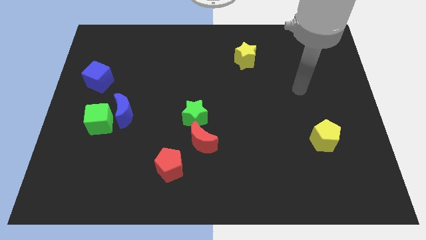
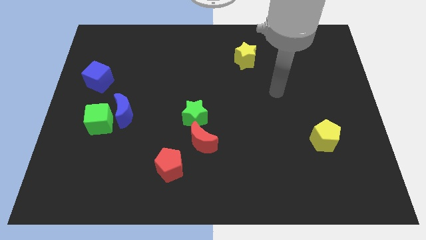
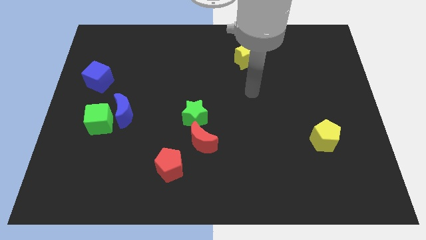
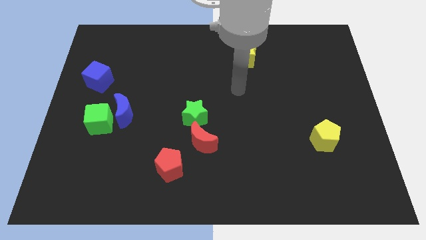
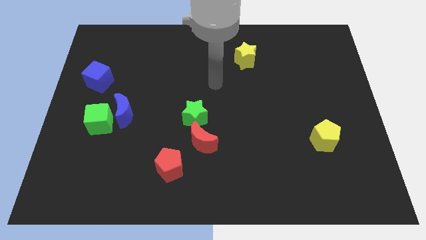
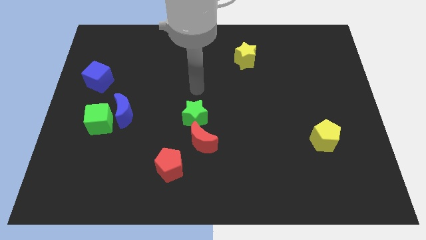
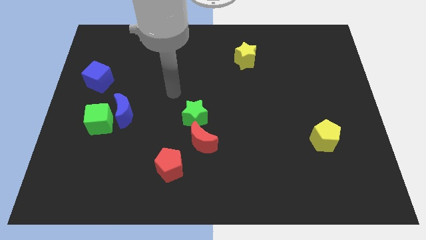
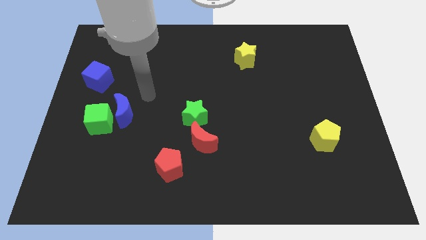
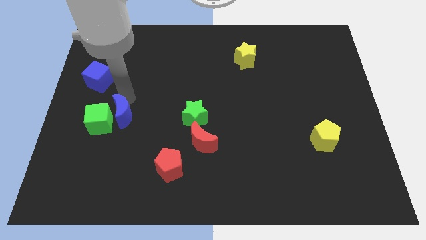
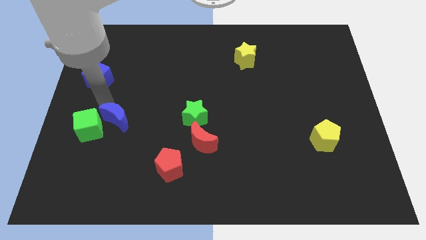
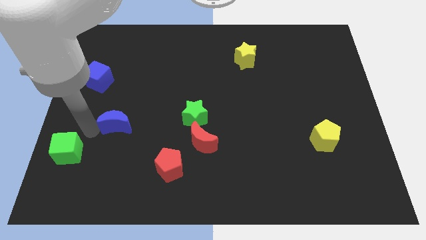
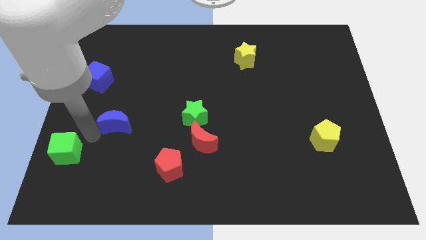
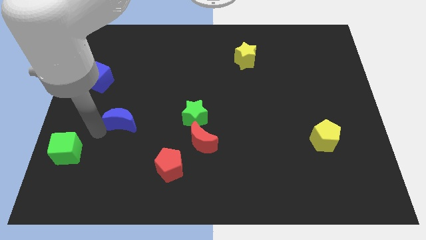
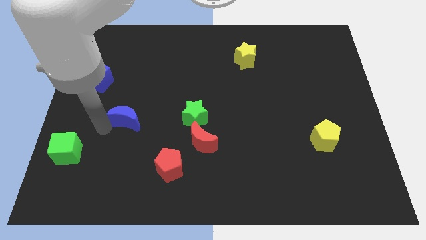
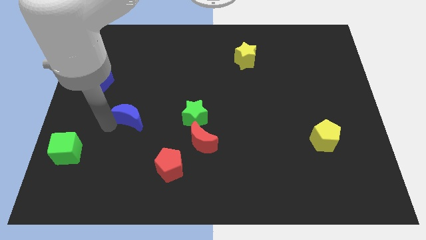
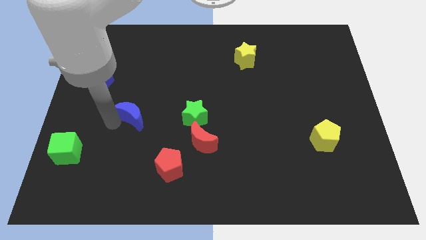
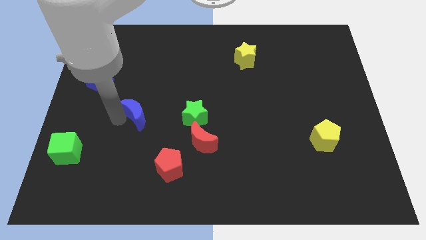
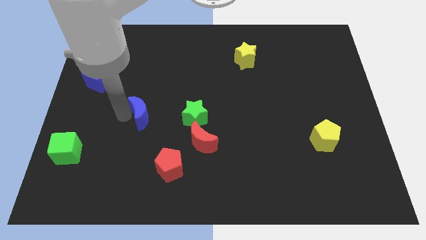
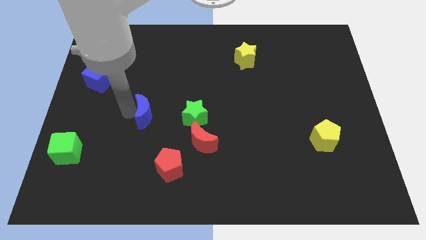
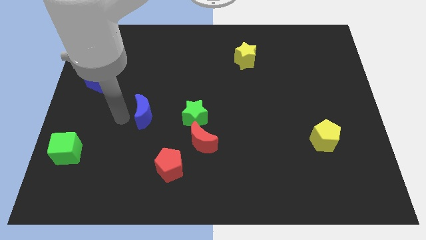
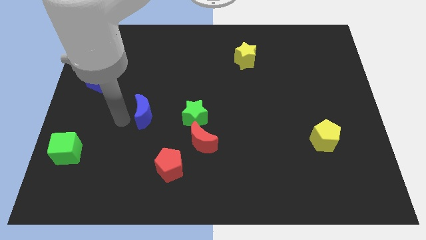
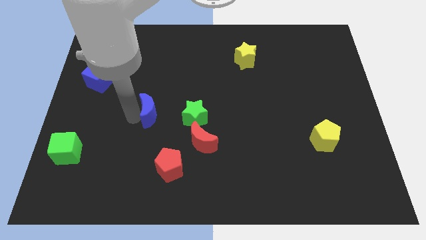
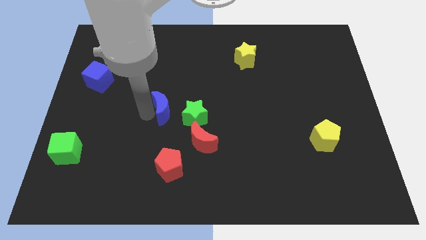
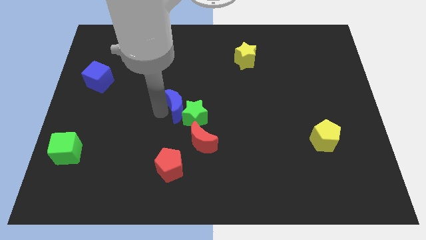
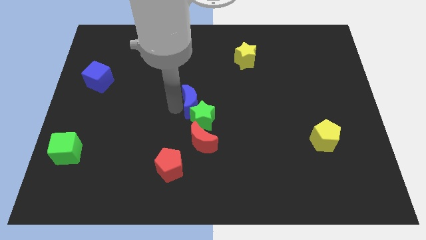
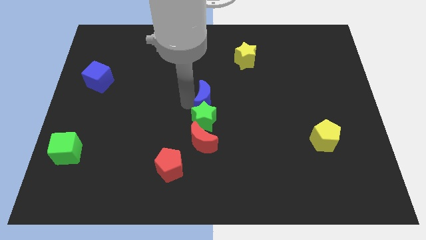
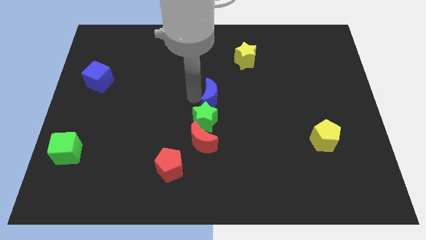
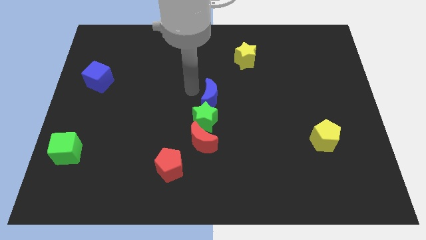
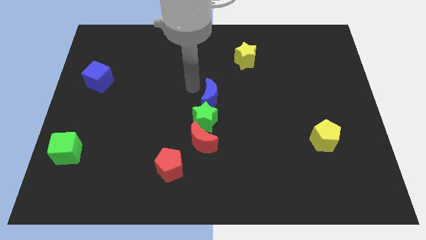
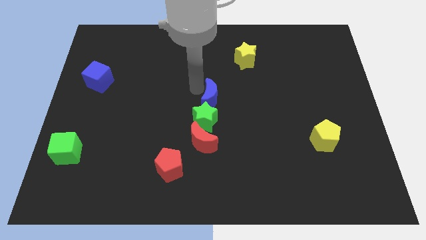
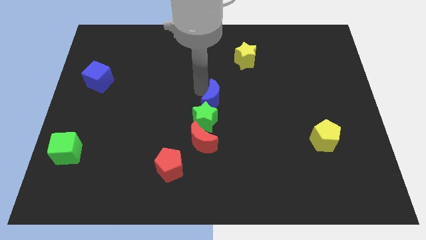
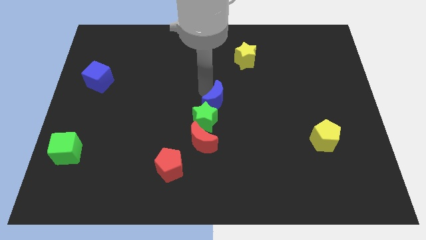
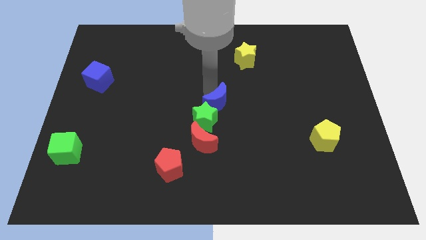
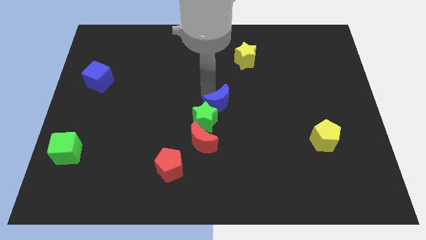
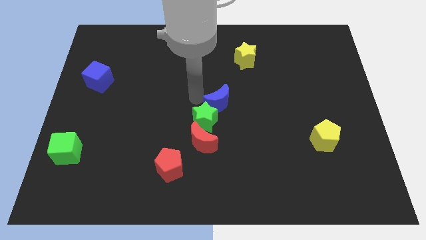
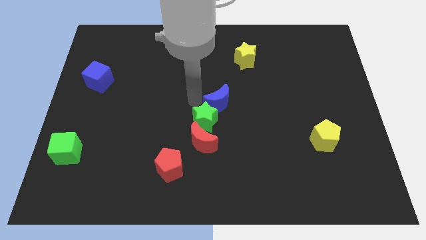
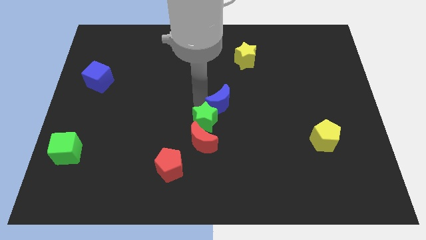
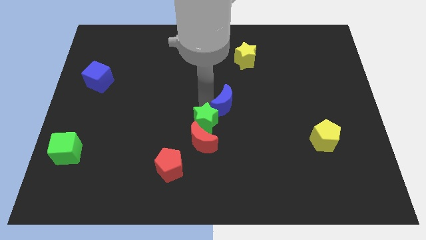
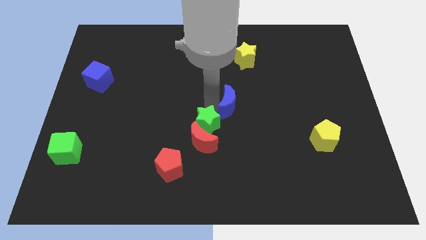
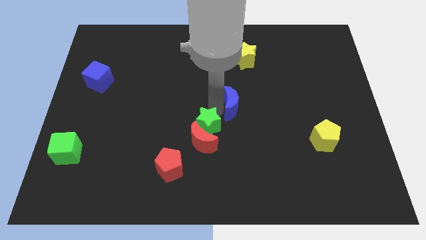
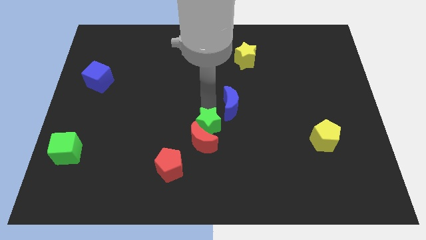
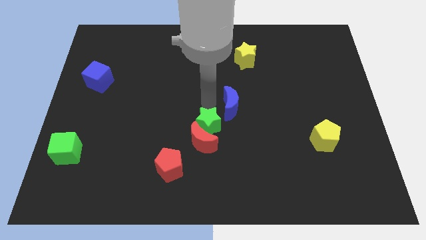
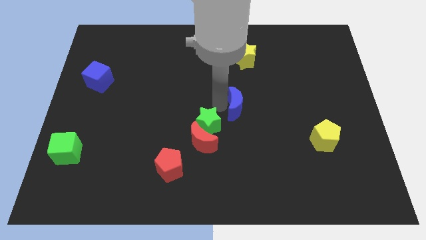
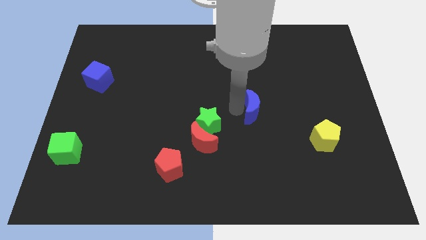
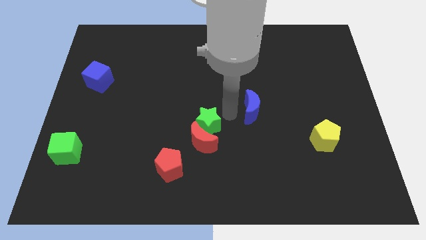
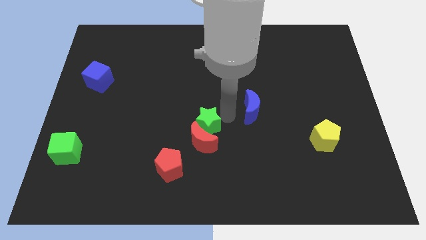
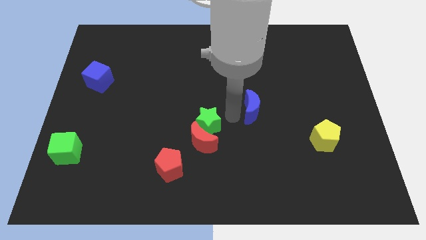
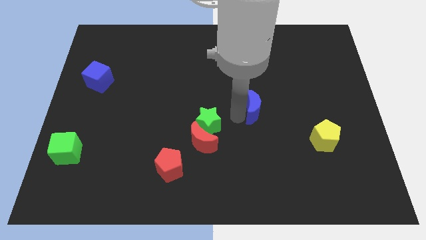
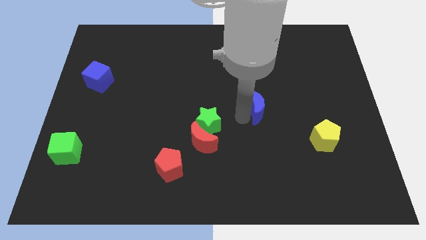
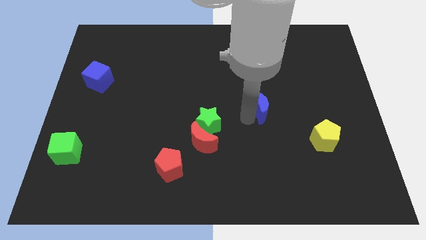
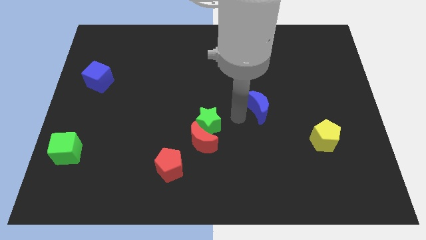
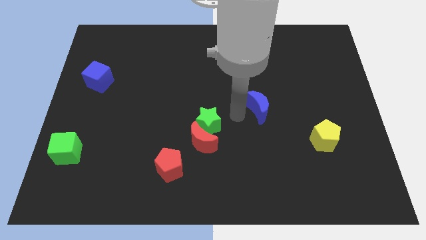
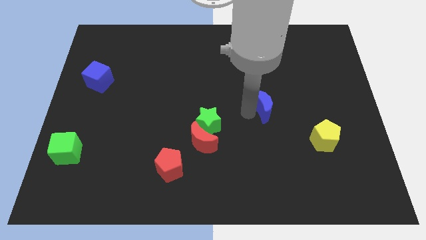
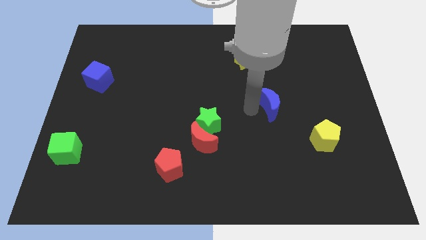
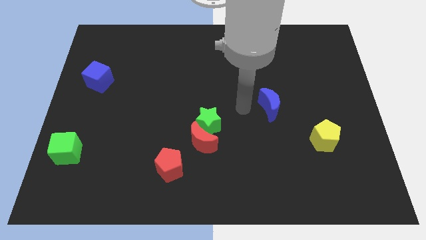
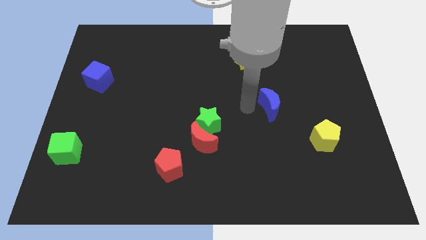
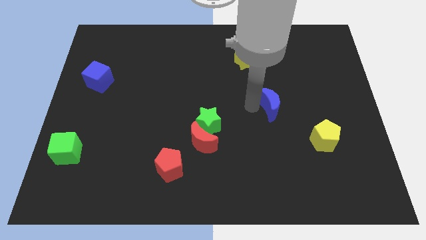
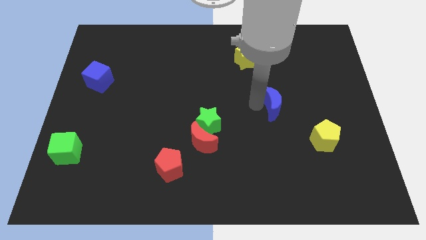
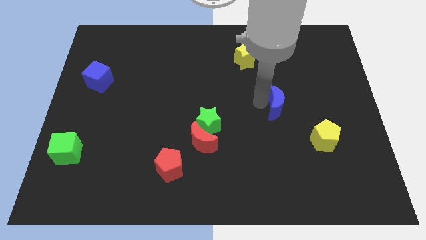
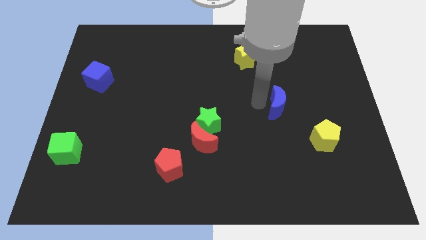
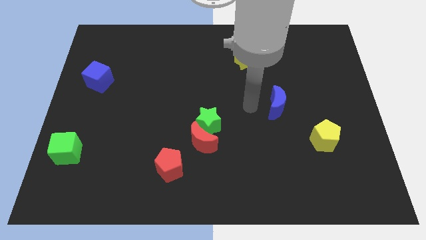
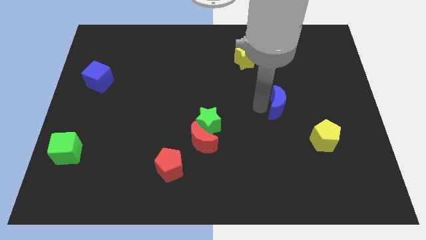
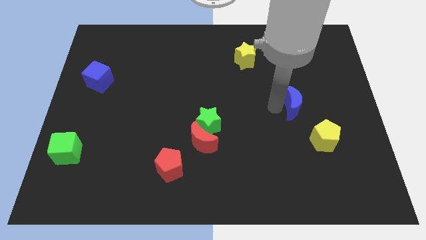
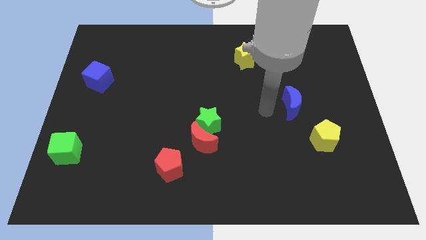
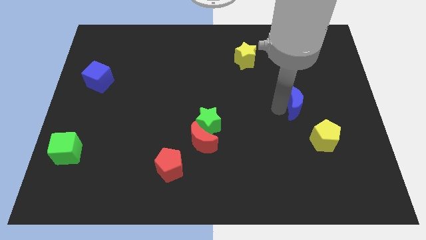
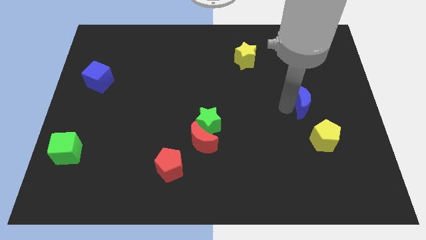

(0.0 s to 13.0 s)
put the blue moon above the yellow pentagon

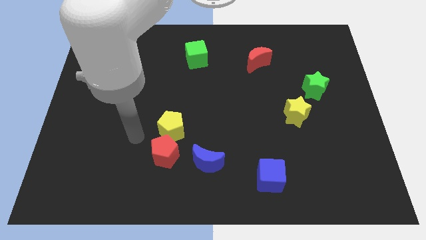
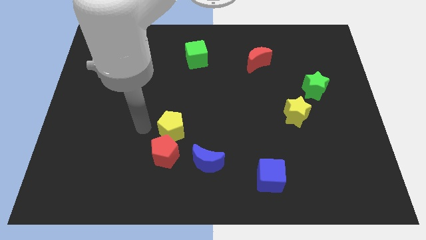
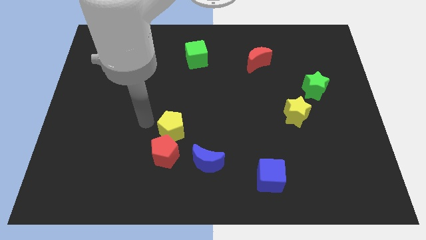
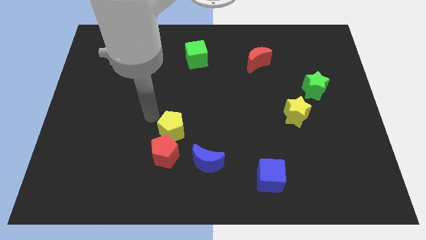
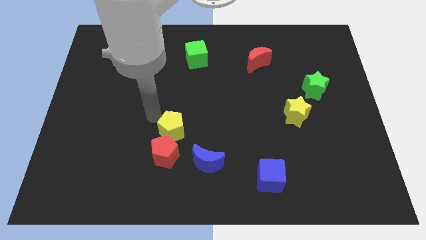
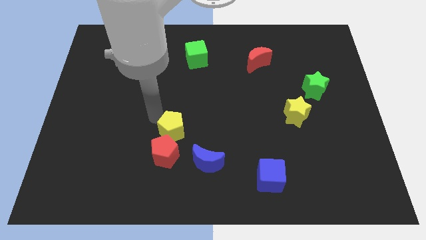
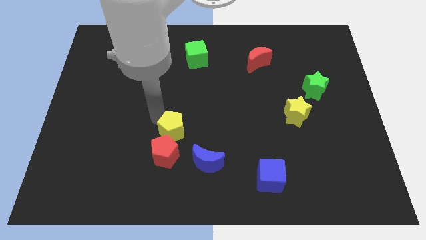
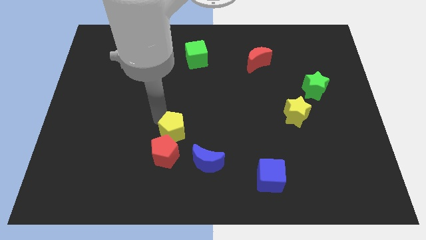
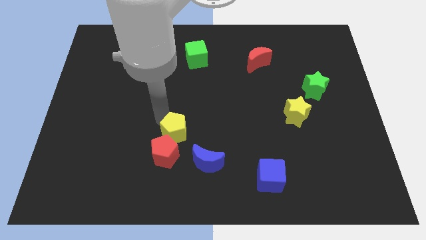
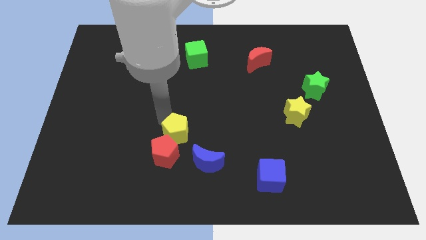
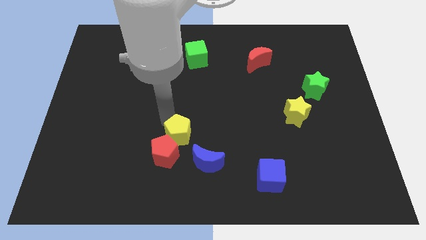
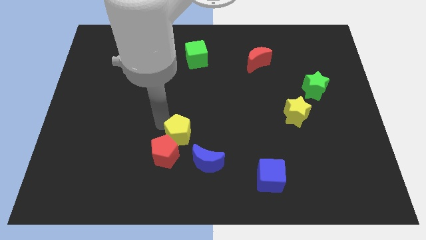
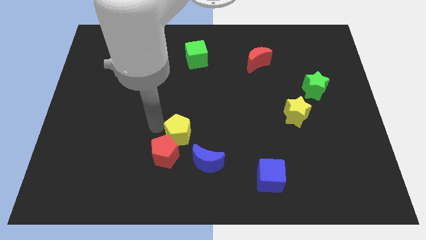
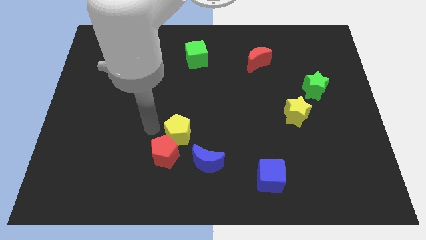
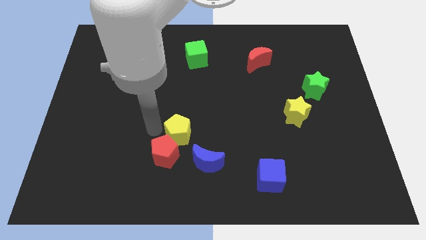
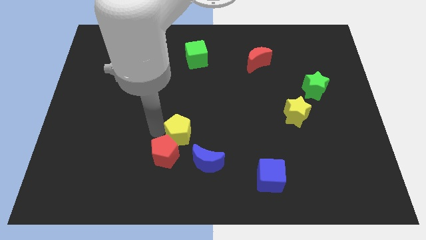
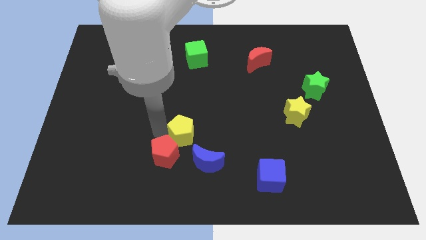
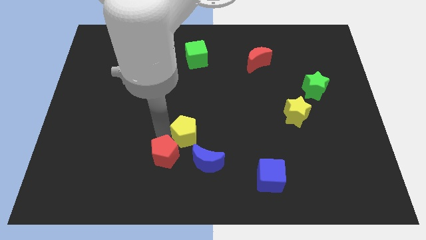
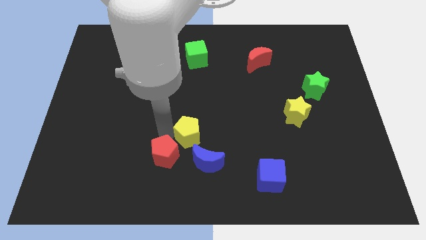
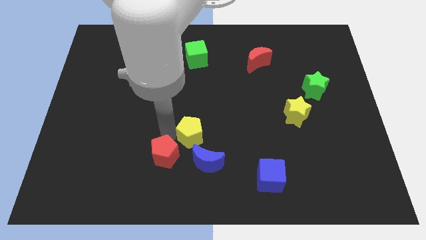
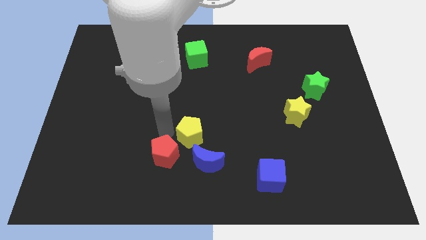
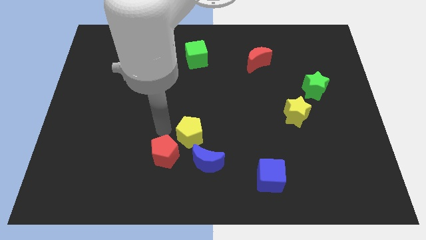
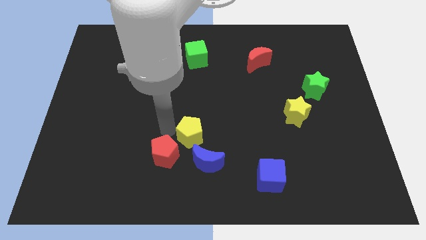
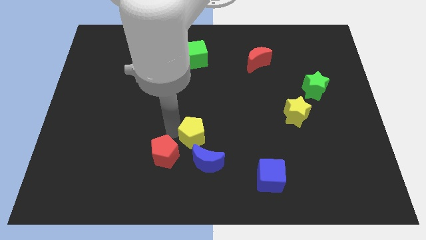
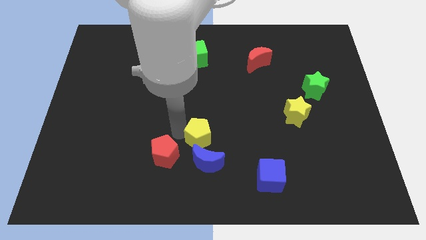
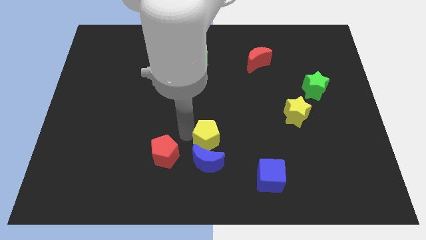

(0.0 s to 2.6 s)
put the yellow pentagon to the top right of the blue moon
